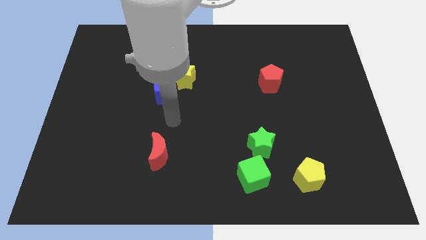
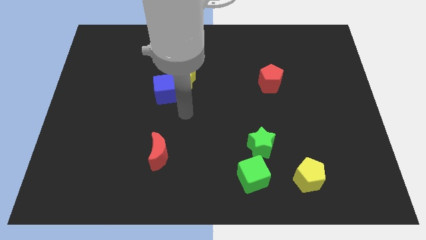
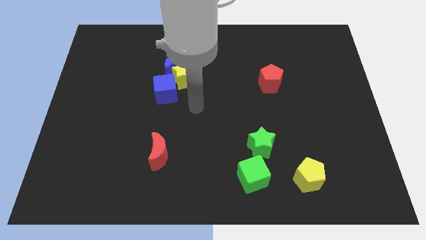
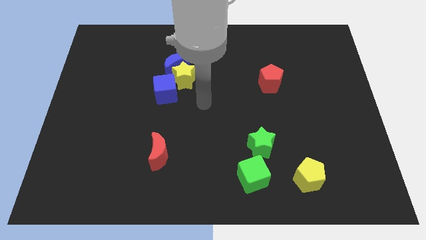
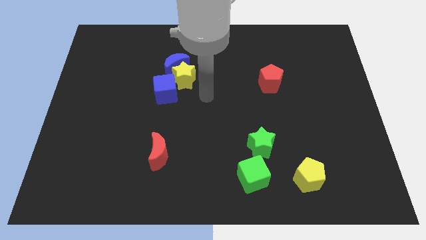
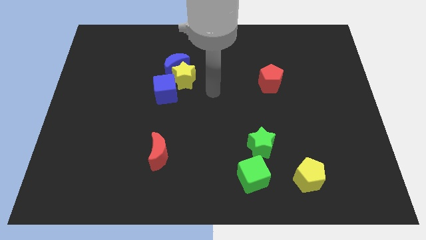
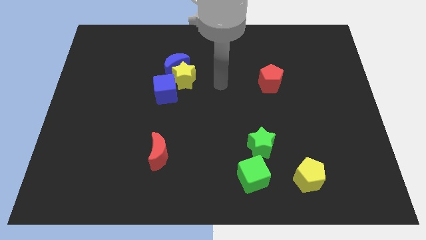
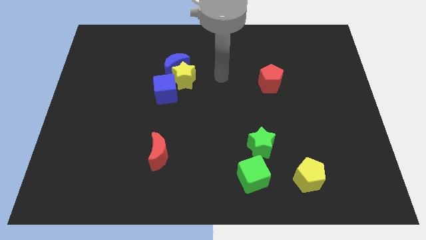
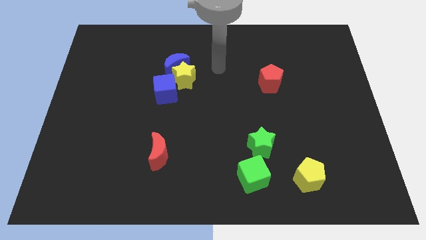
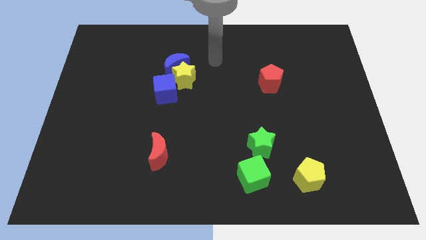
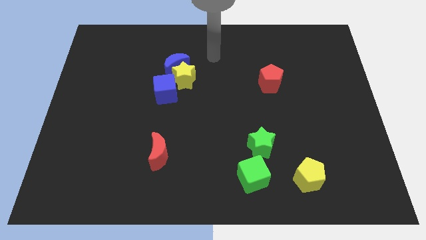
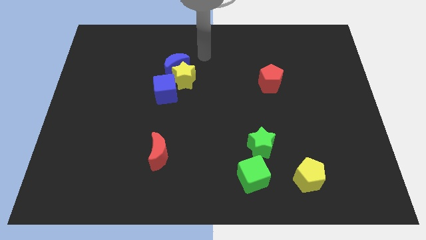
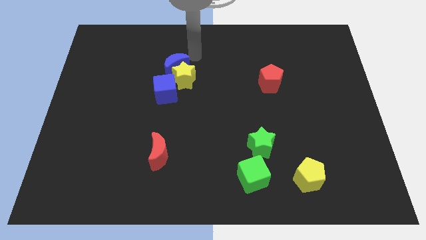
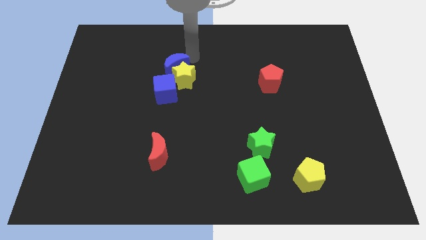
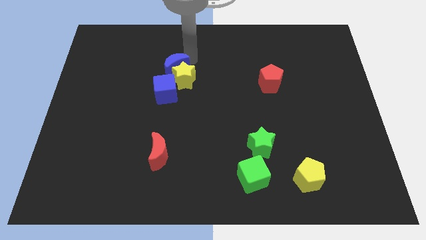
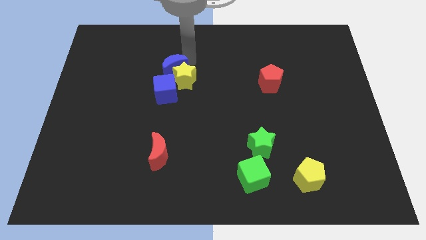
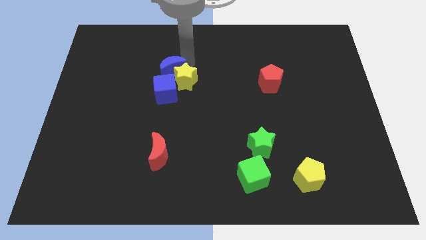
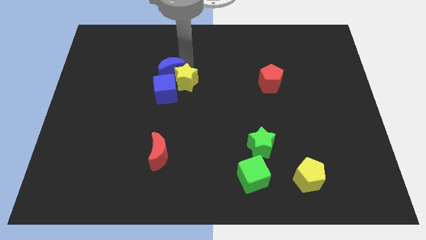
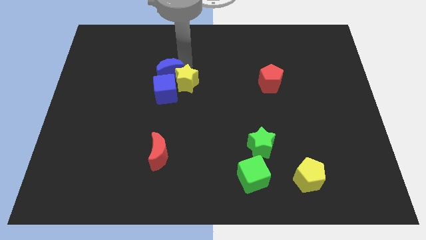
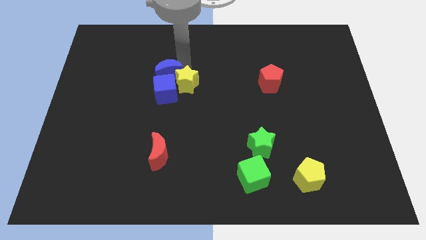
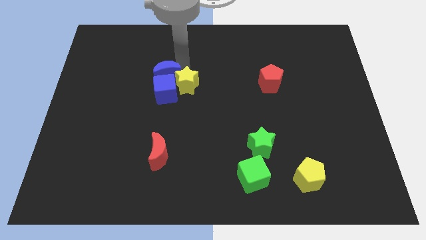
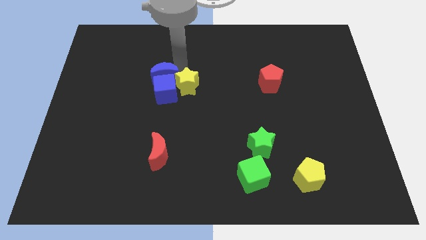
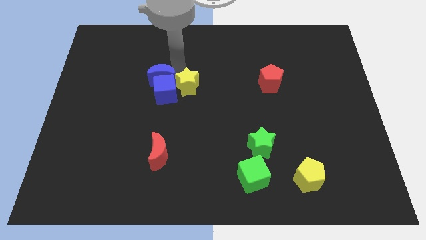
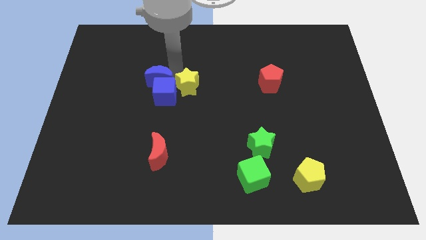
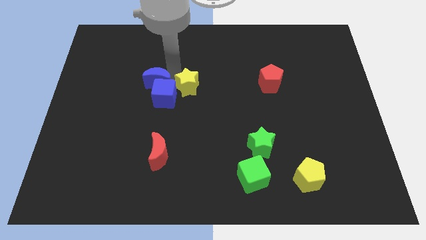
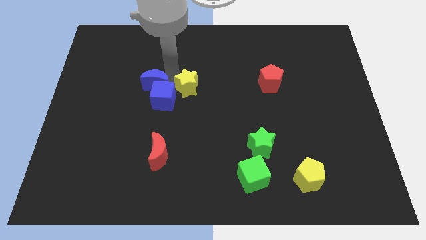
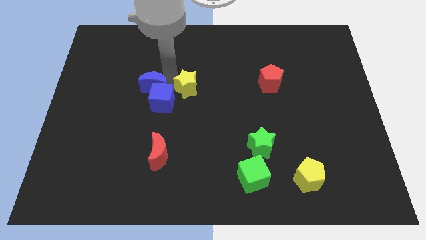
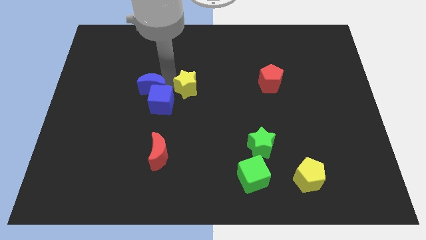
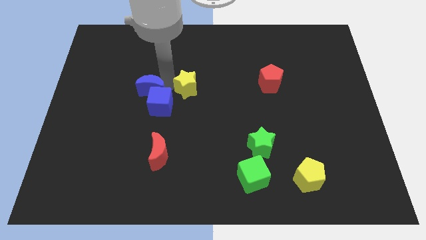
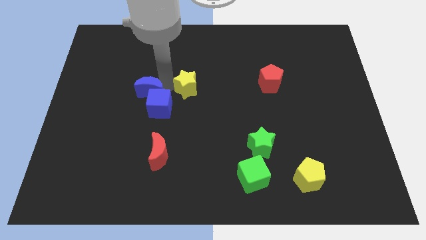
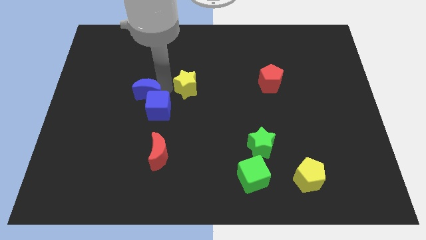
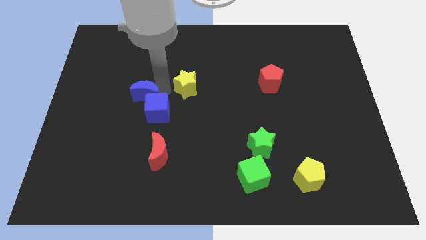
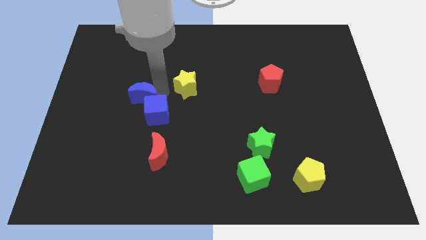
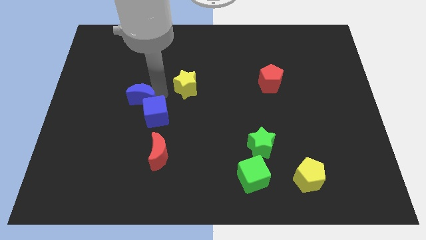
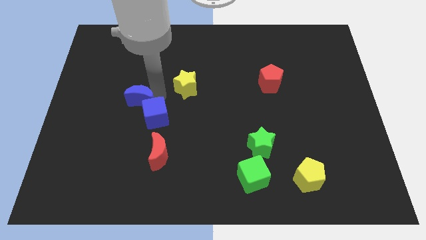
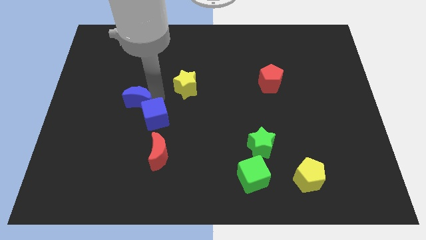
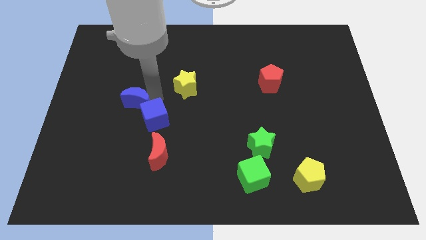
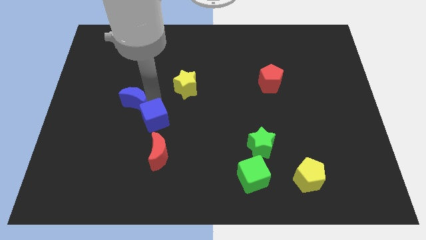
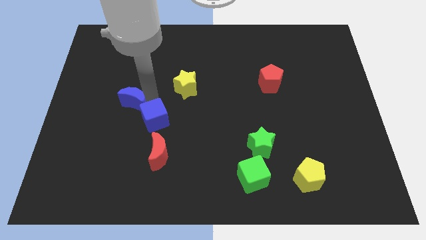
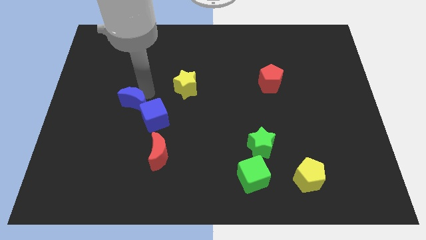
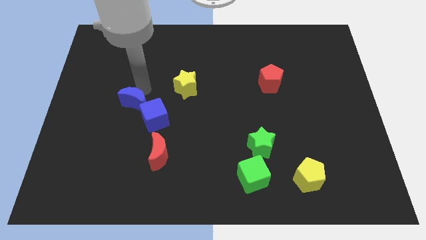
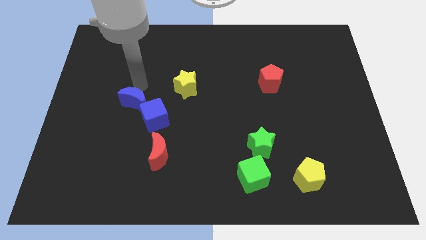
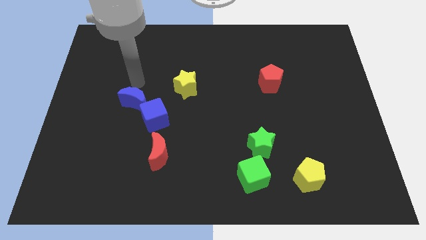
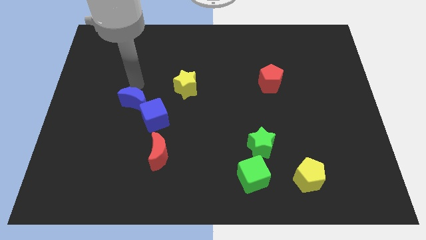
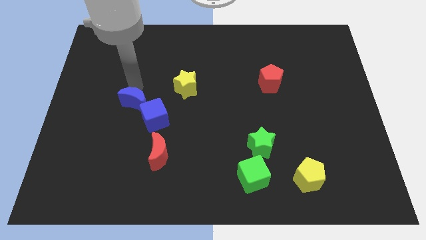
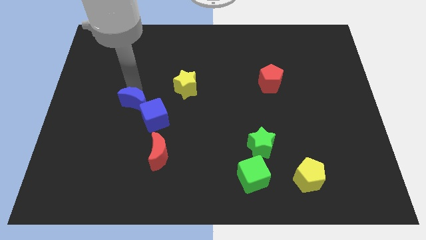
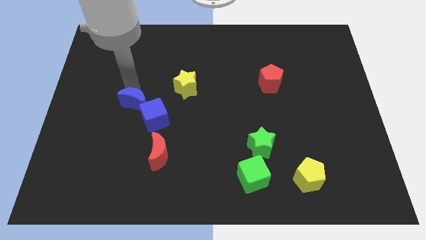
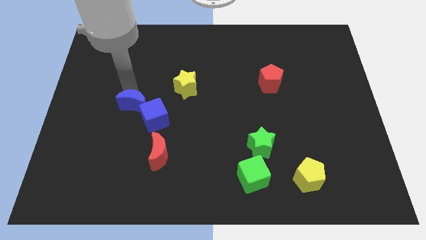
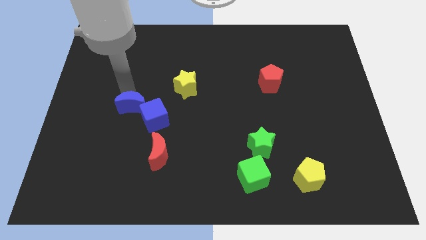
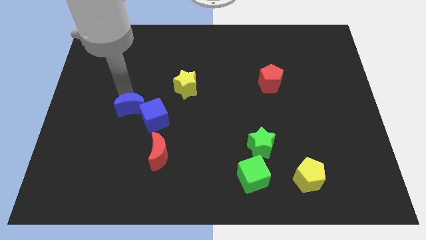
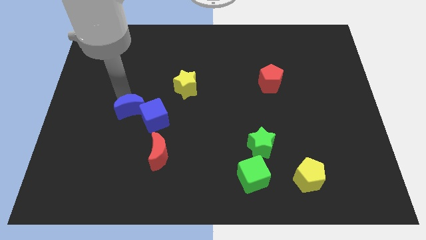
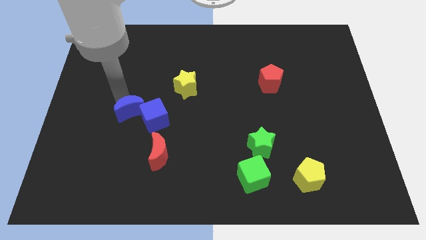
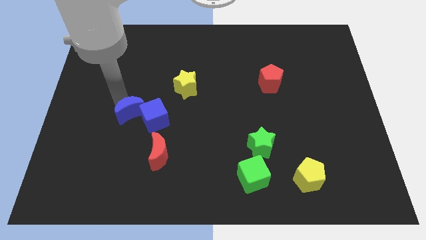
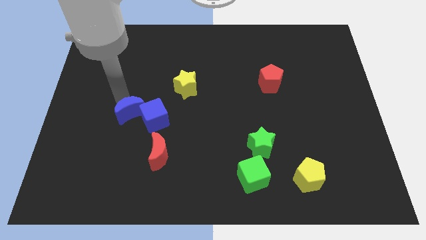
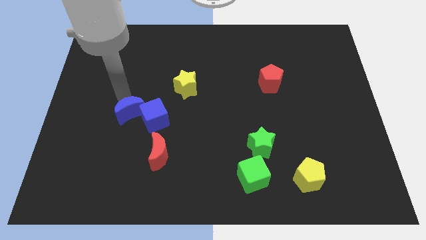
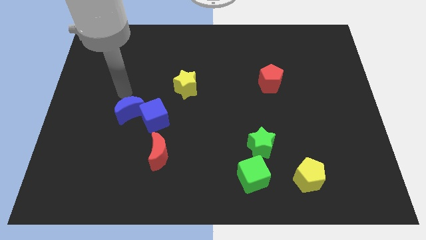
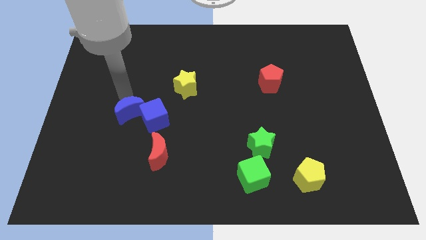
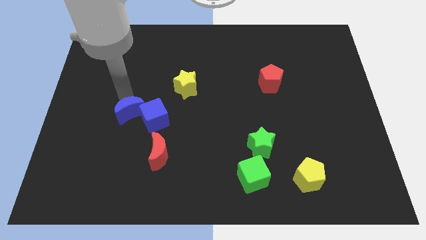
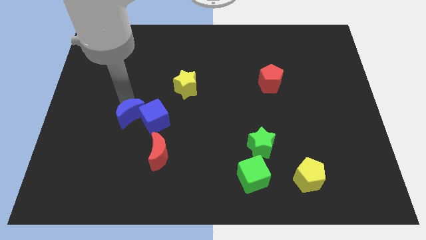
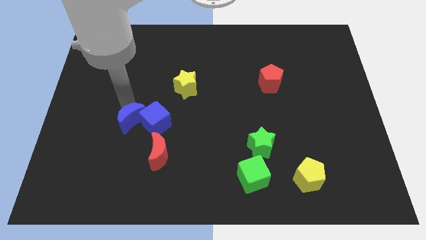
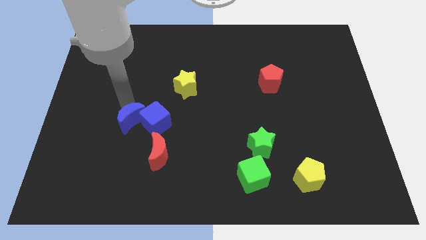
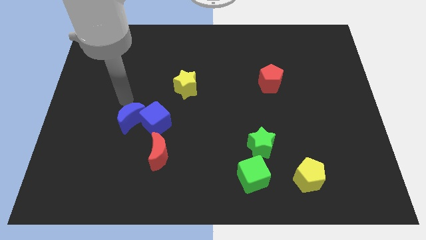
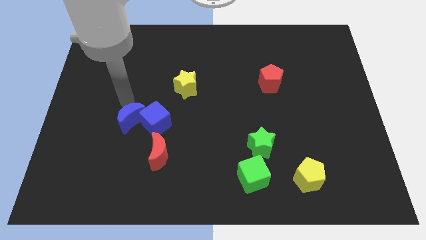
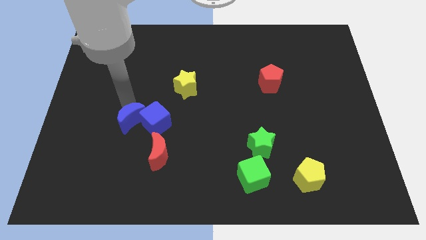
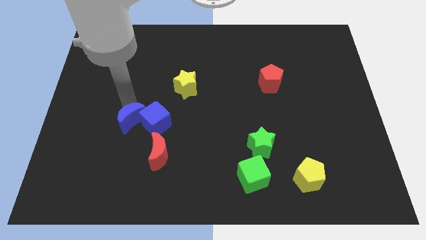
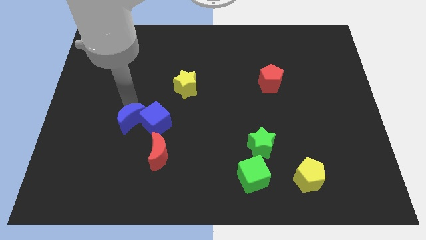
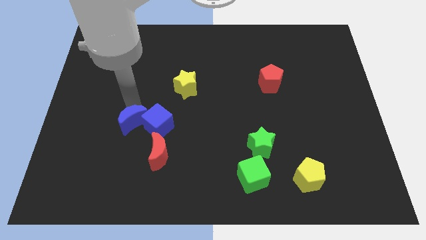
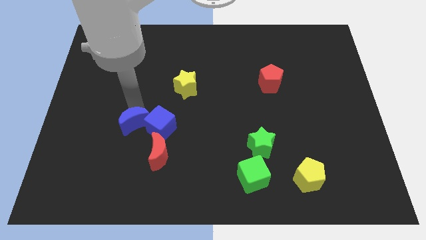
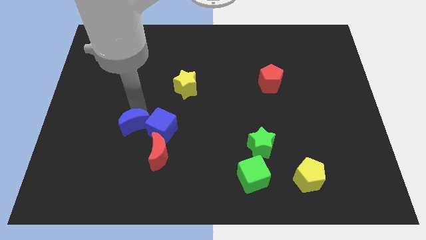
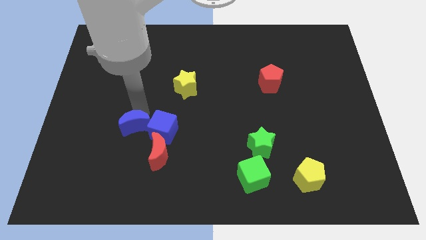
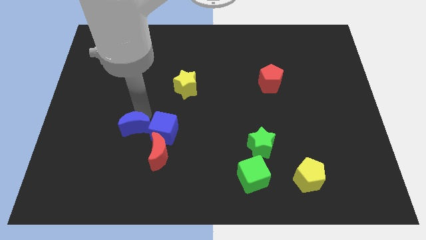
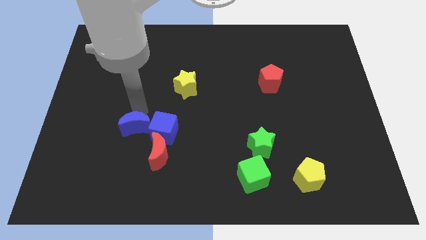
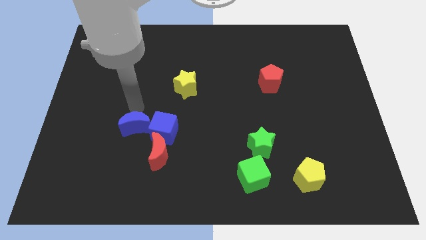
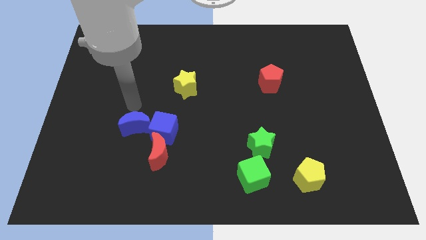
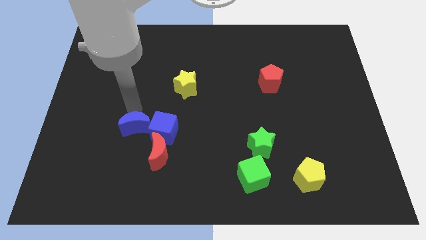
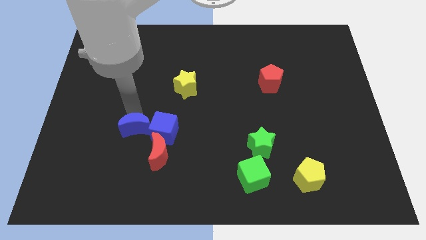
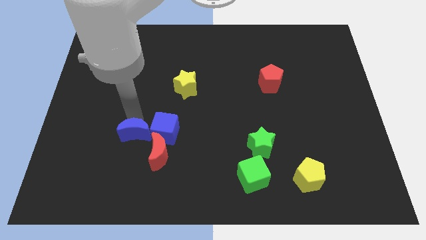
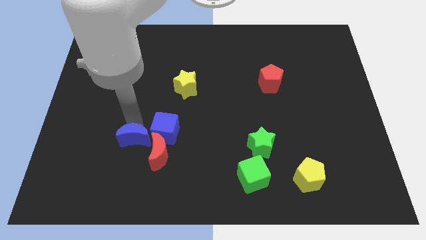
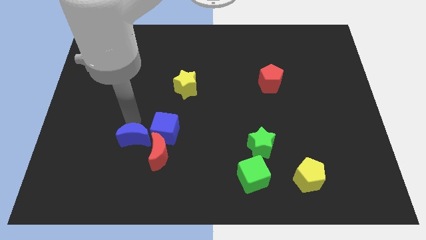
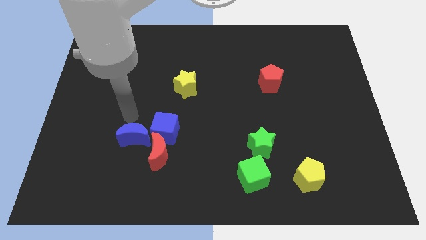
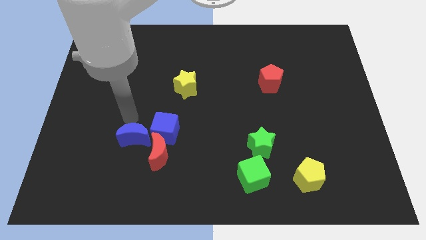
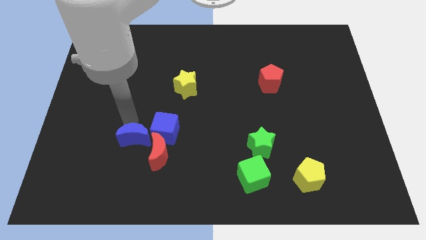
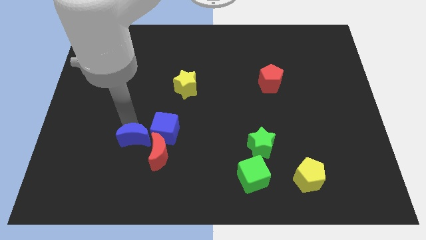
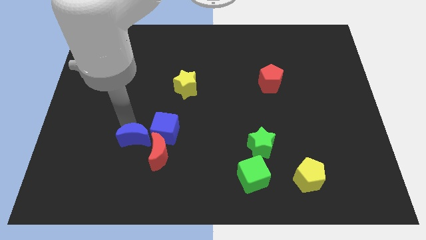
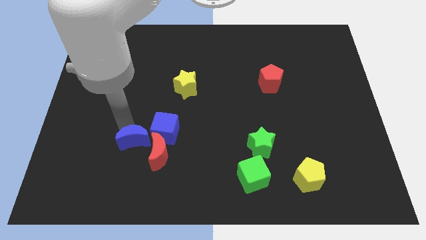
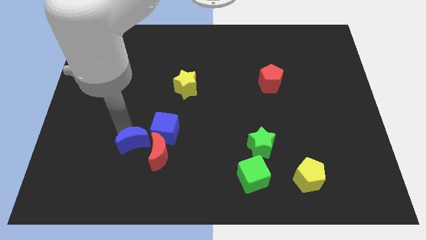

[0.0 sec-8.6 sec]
slide the blue moon downwards
